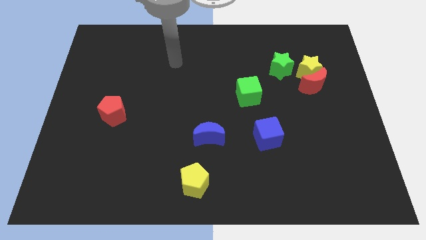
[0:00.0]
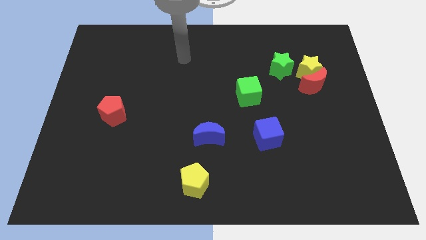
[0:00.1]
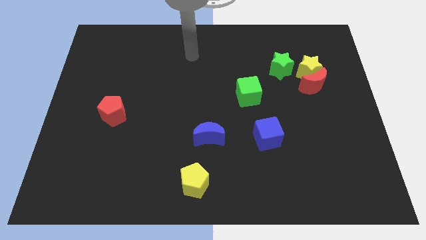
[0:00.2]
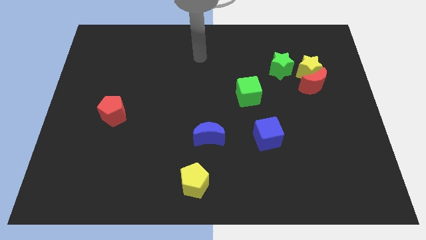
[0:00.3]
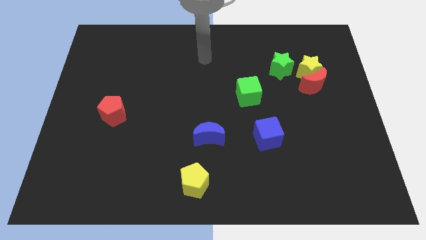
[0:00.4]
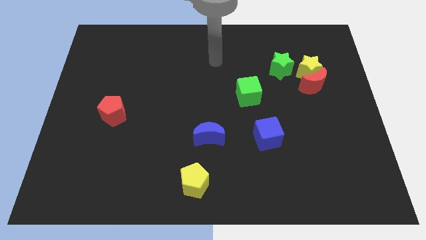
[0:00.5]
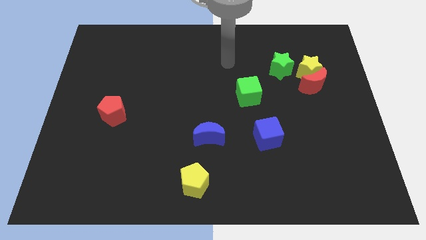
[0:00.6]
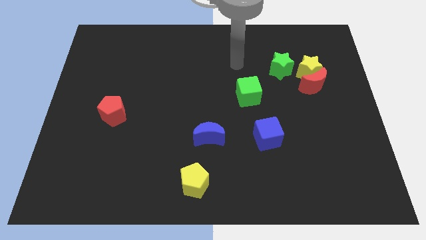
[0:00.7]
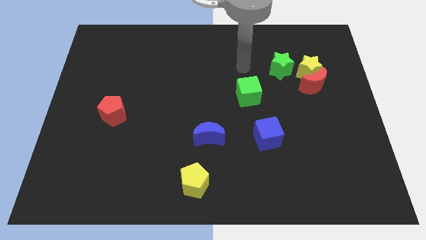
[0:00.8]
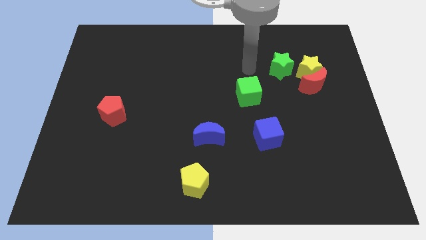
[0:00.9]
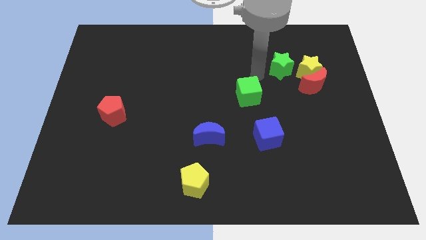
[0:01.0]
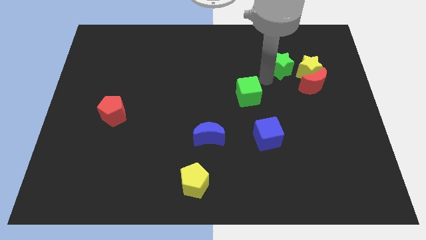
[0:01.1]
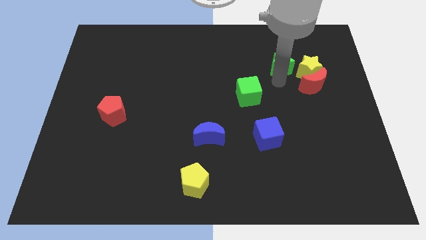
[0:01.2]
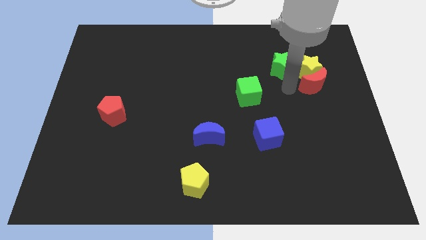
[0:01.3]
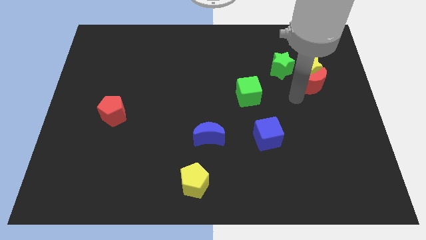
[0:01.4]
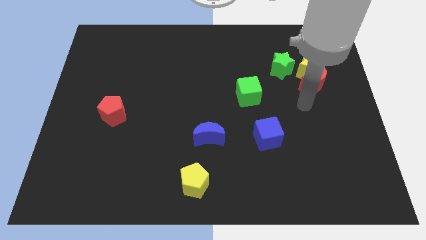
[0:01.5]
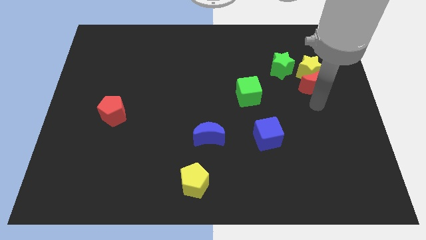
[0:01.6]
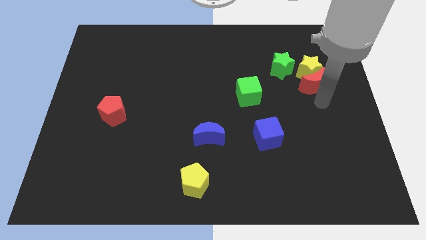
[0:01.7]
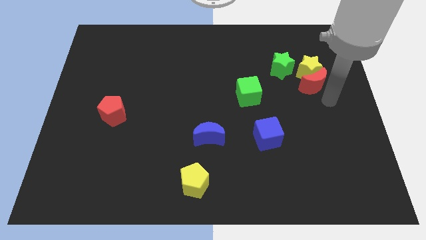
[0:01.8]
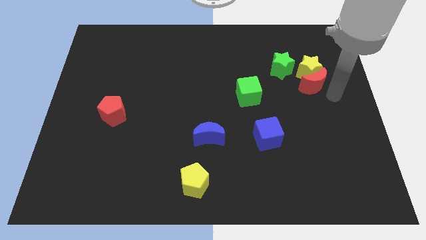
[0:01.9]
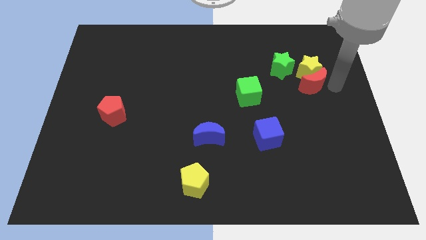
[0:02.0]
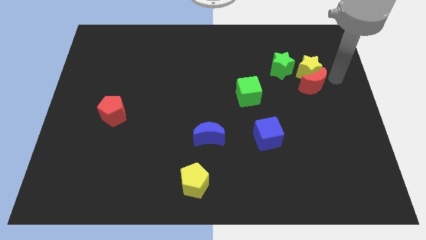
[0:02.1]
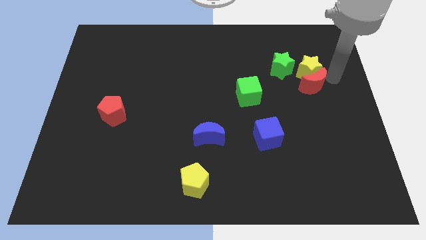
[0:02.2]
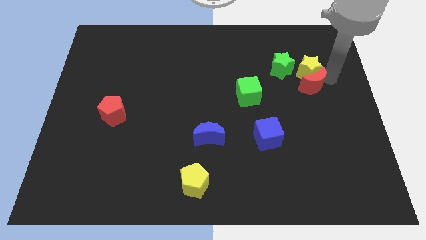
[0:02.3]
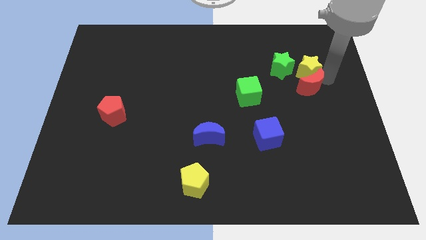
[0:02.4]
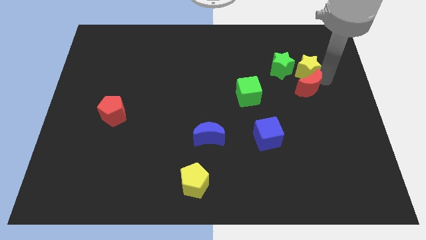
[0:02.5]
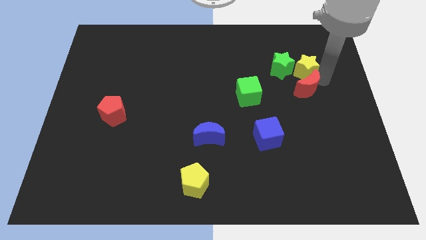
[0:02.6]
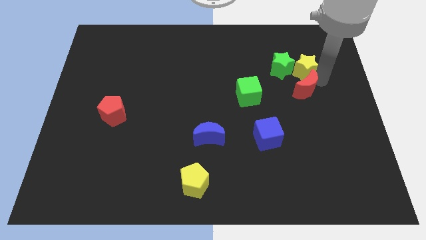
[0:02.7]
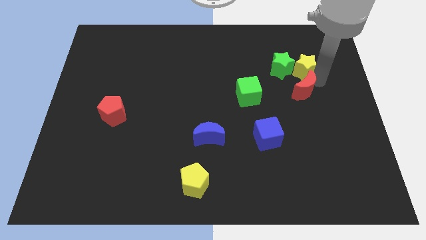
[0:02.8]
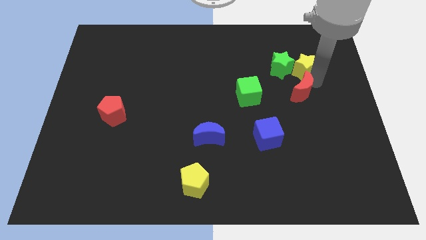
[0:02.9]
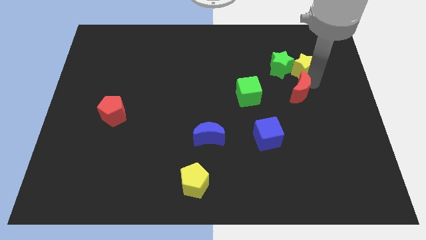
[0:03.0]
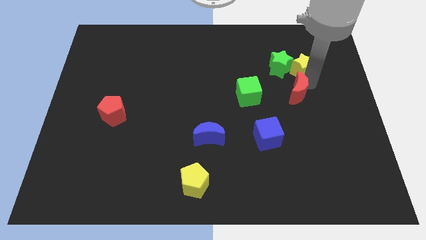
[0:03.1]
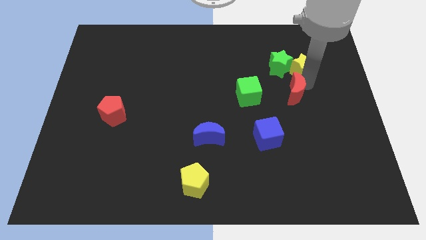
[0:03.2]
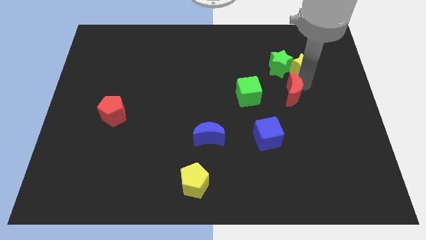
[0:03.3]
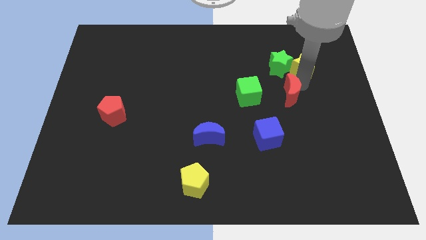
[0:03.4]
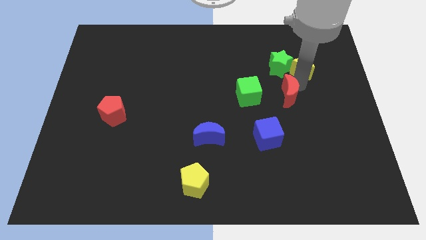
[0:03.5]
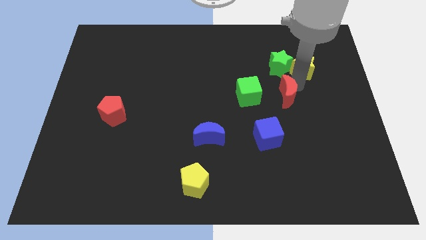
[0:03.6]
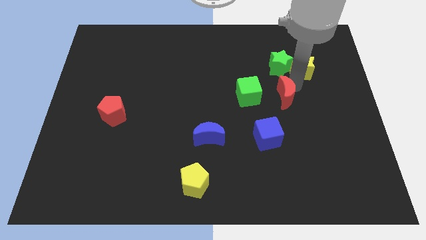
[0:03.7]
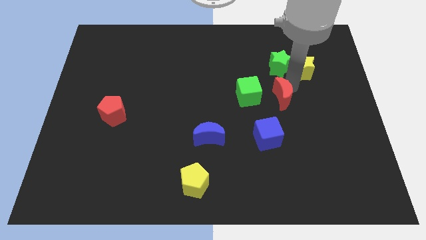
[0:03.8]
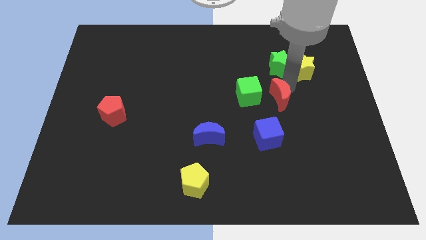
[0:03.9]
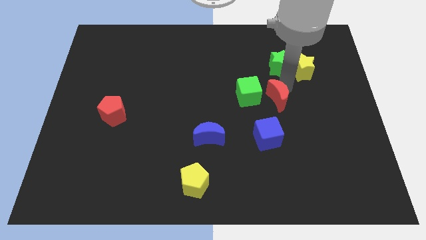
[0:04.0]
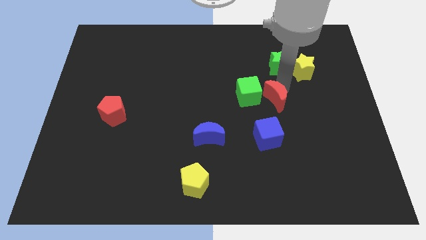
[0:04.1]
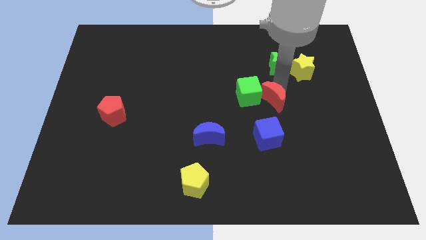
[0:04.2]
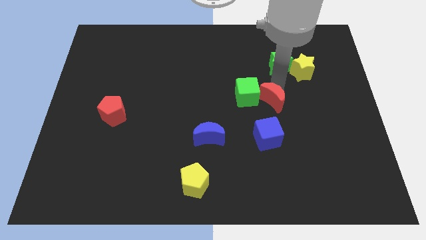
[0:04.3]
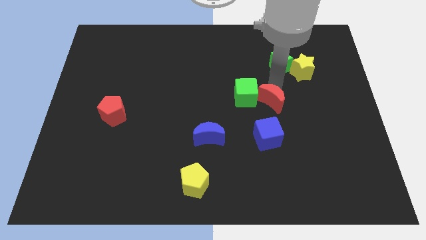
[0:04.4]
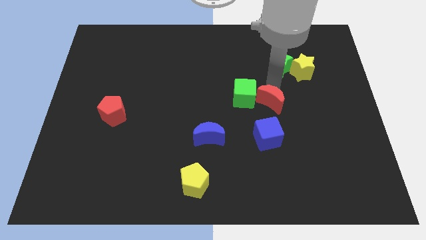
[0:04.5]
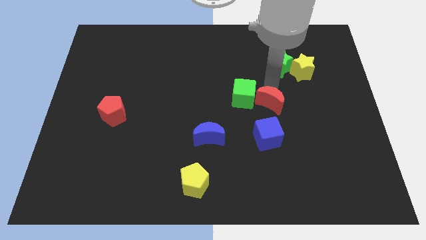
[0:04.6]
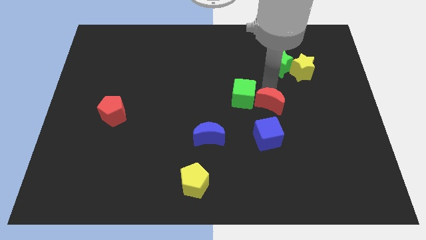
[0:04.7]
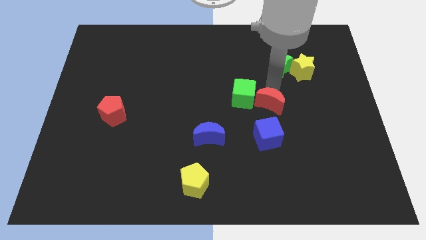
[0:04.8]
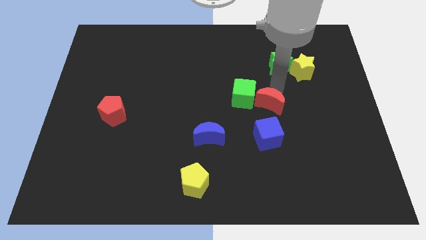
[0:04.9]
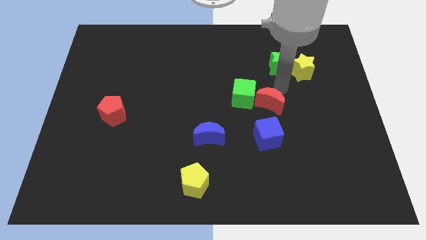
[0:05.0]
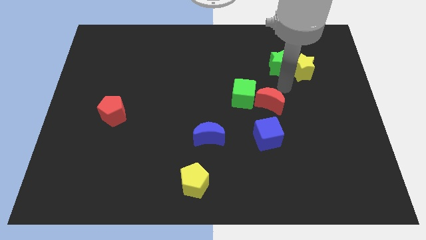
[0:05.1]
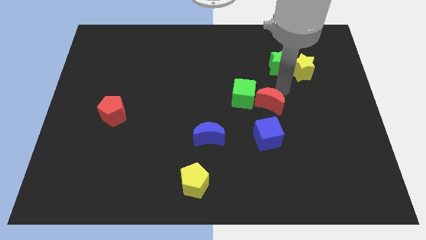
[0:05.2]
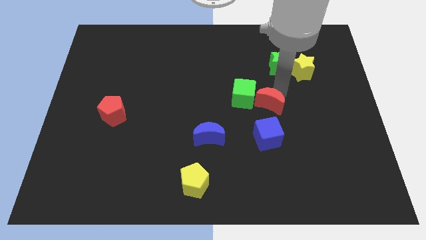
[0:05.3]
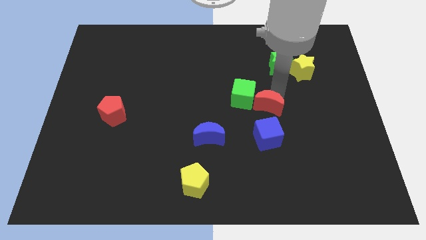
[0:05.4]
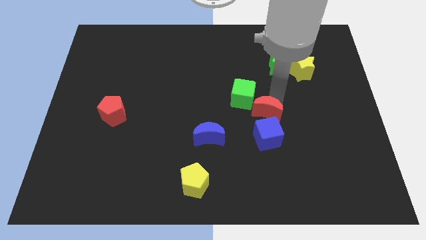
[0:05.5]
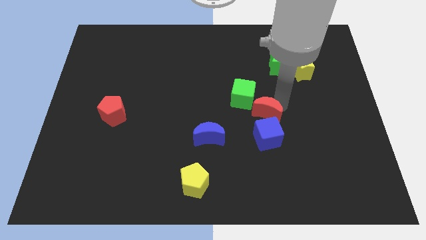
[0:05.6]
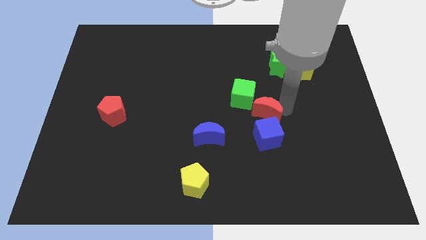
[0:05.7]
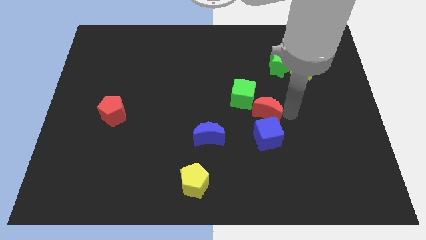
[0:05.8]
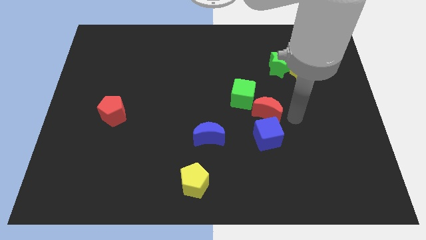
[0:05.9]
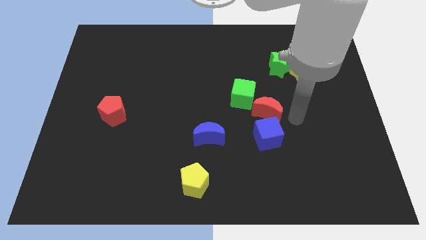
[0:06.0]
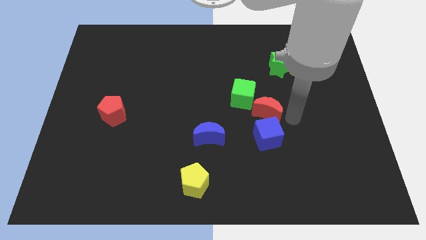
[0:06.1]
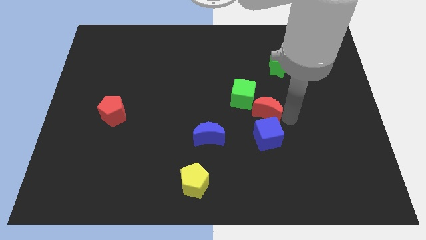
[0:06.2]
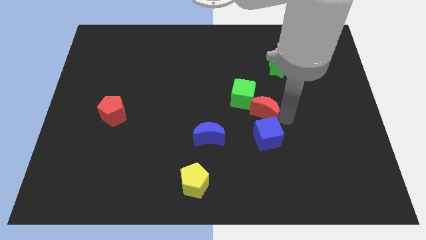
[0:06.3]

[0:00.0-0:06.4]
slide the red moon to the center
